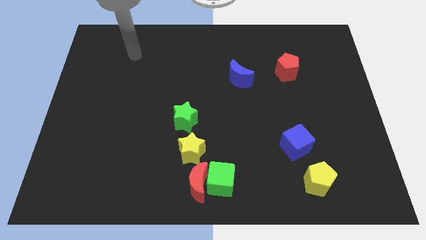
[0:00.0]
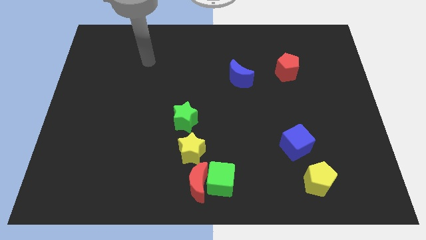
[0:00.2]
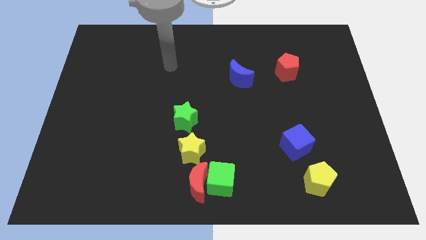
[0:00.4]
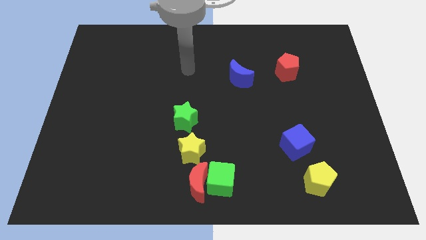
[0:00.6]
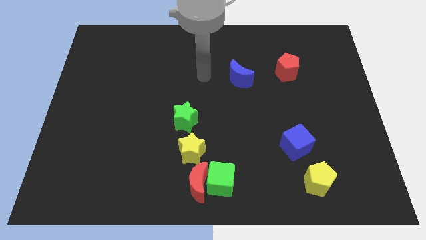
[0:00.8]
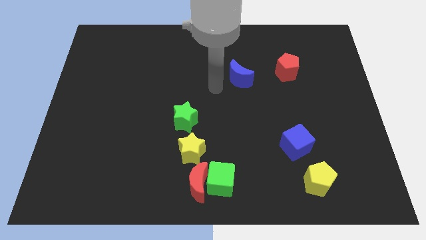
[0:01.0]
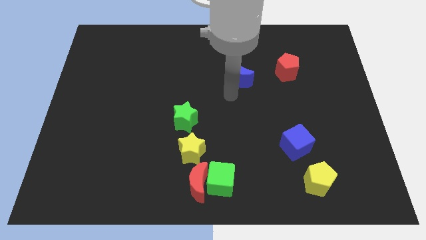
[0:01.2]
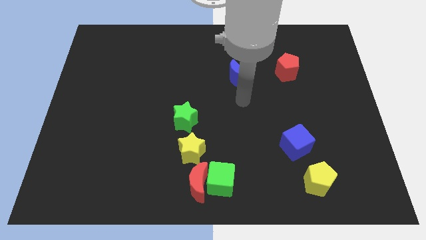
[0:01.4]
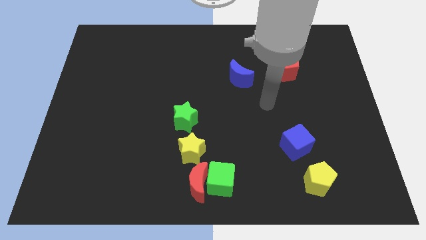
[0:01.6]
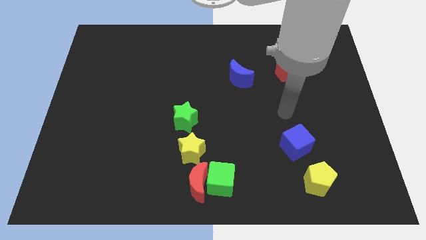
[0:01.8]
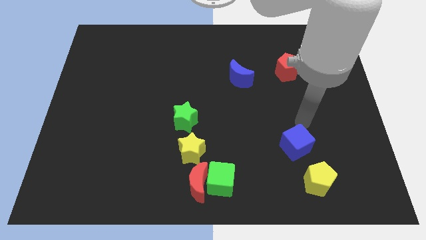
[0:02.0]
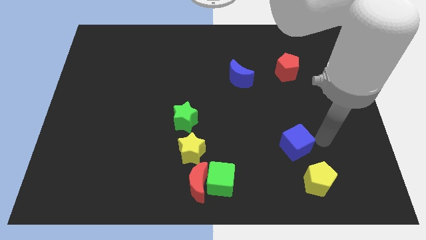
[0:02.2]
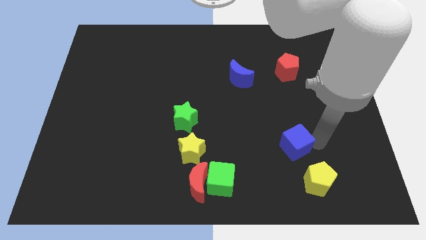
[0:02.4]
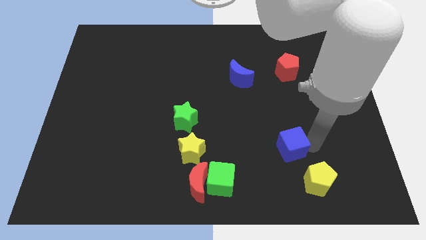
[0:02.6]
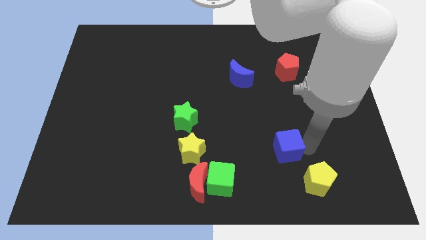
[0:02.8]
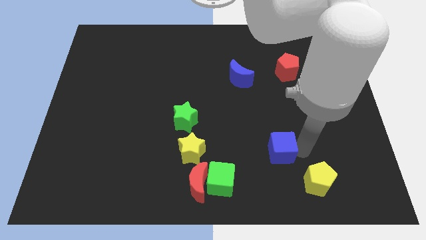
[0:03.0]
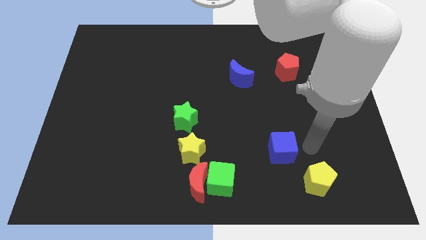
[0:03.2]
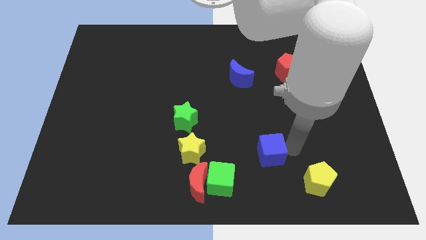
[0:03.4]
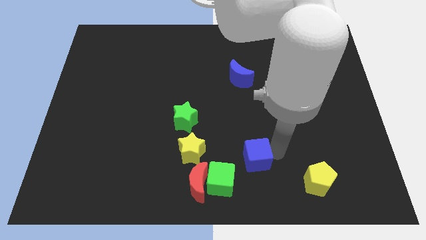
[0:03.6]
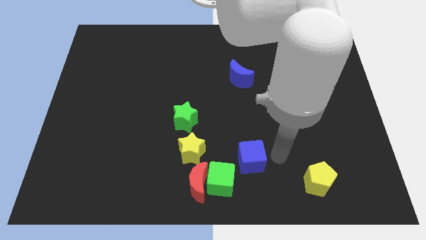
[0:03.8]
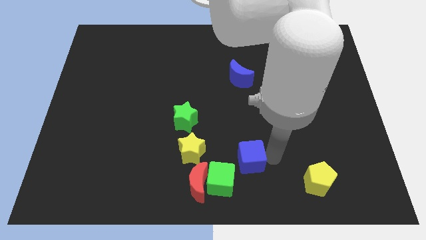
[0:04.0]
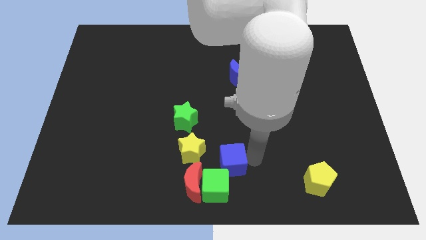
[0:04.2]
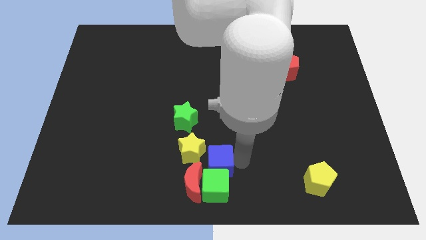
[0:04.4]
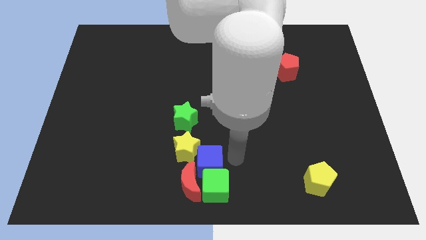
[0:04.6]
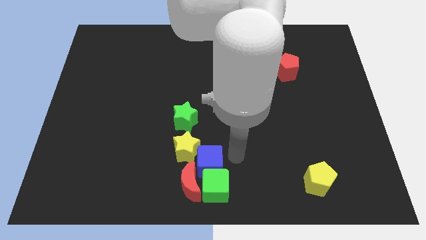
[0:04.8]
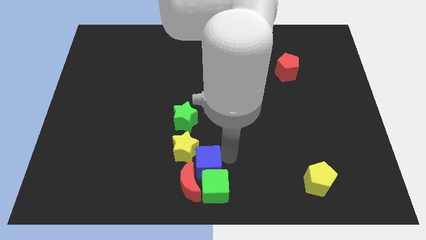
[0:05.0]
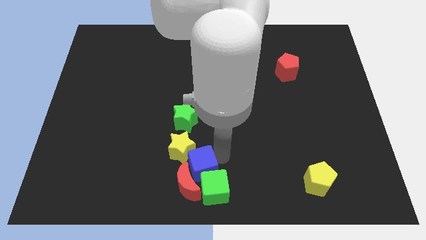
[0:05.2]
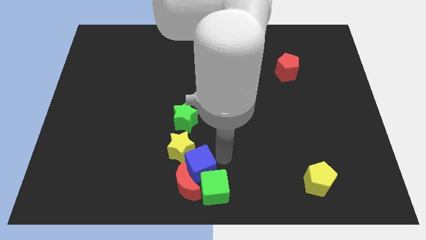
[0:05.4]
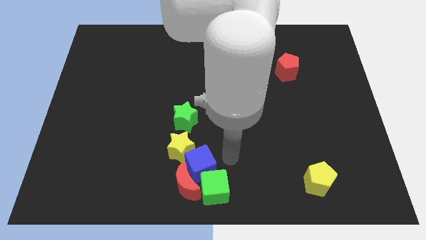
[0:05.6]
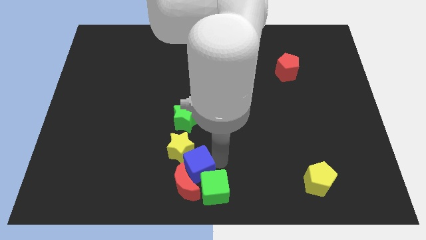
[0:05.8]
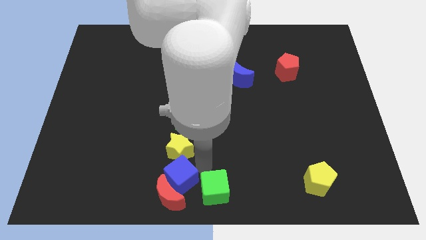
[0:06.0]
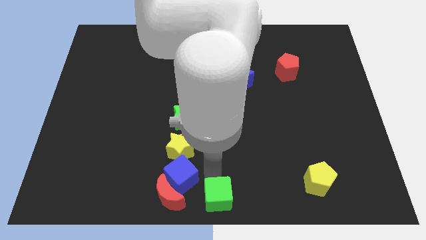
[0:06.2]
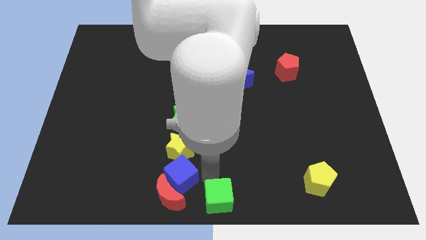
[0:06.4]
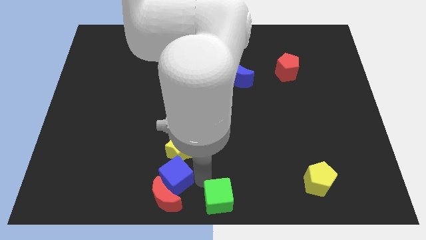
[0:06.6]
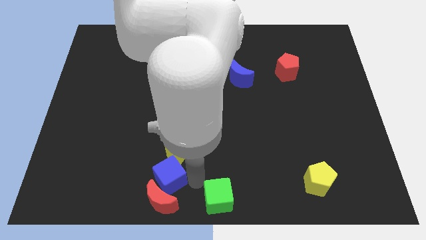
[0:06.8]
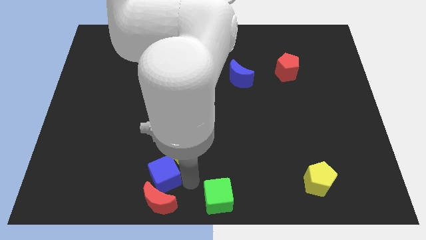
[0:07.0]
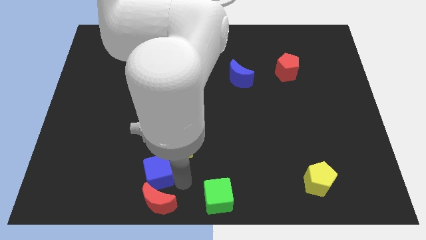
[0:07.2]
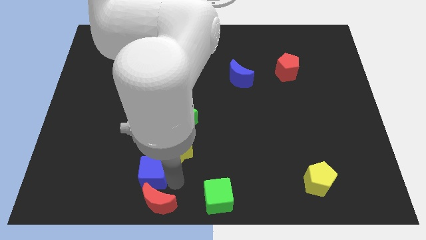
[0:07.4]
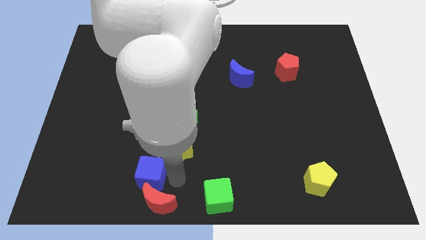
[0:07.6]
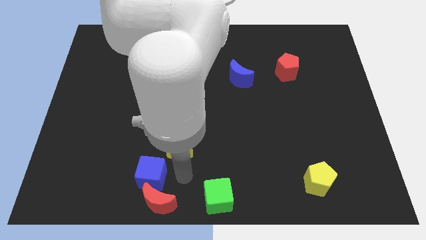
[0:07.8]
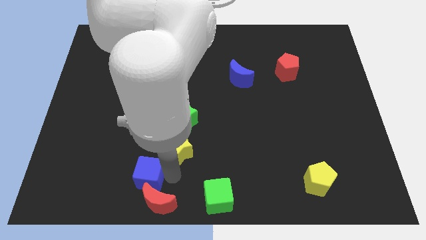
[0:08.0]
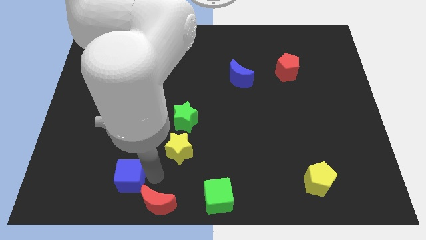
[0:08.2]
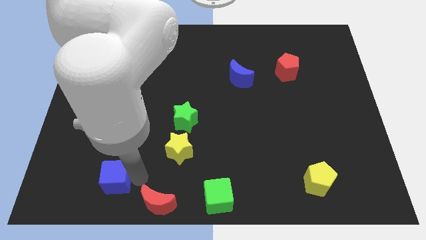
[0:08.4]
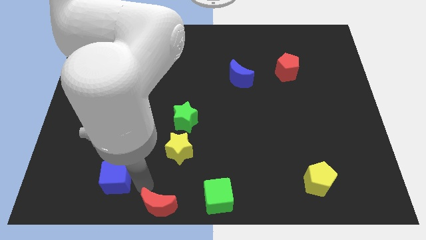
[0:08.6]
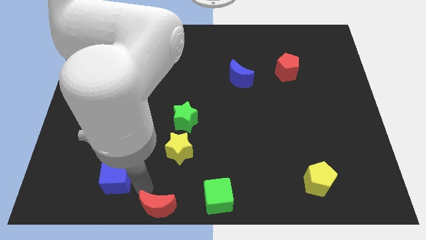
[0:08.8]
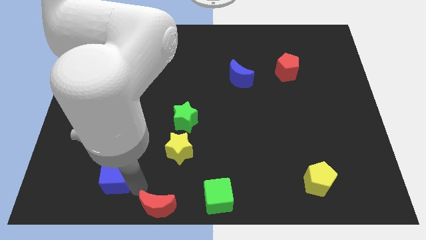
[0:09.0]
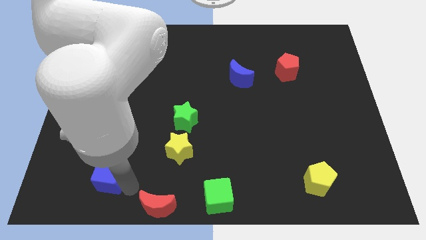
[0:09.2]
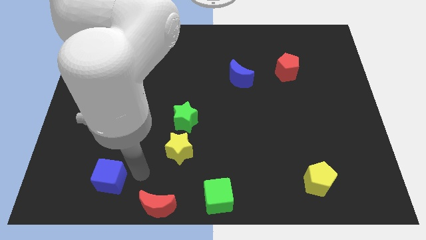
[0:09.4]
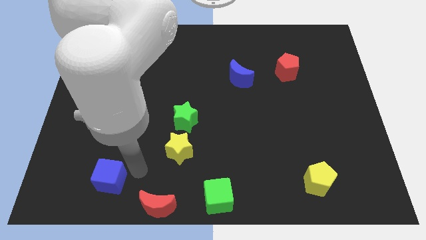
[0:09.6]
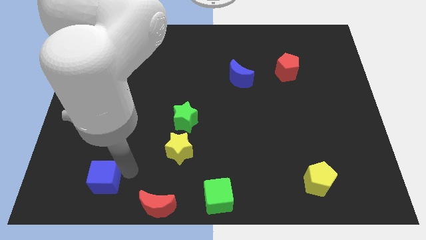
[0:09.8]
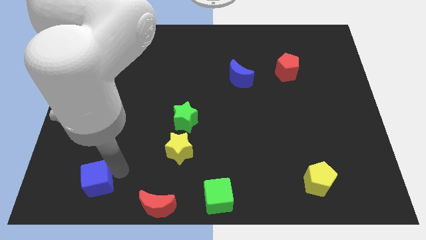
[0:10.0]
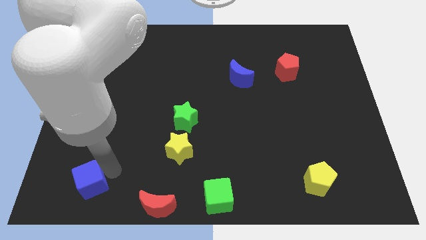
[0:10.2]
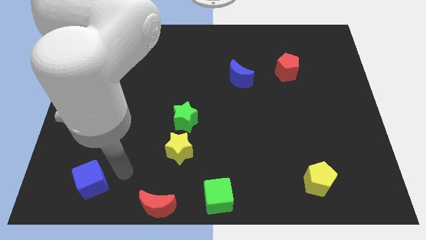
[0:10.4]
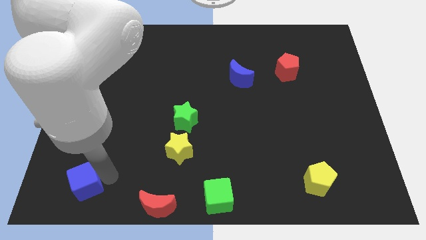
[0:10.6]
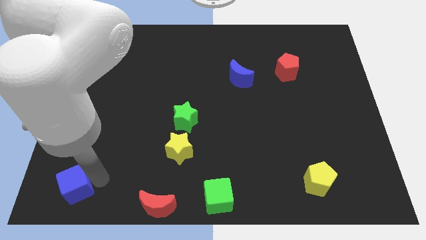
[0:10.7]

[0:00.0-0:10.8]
slide the blue cube to the bottom left corner
